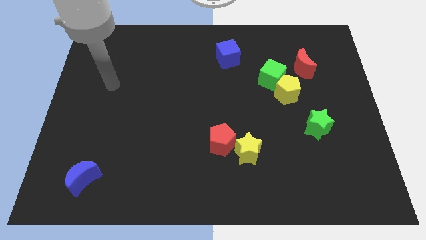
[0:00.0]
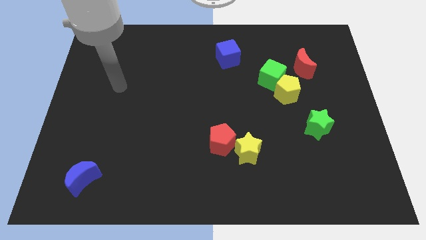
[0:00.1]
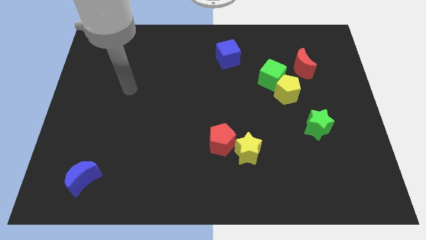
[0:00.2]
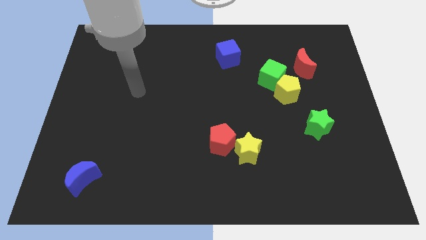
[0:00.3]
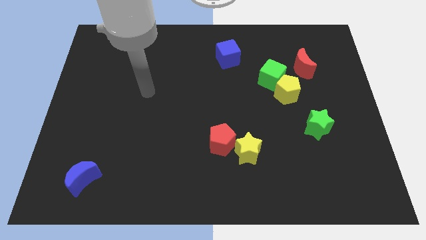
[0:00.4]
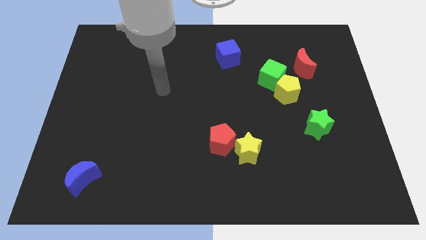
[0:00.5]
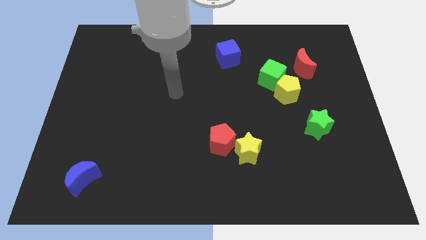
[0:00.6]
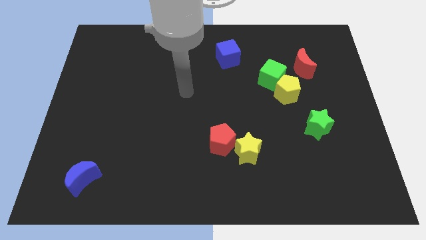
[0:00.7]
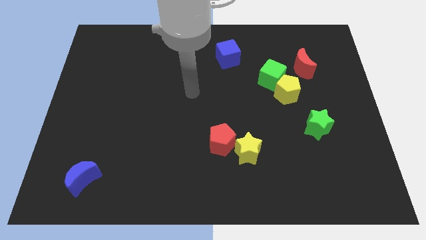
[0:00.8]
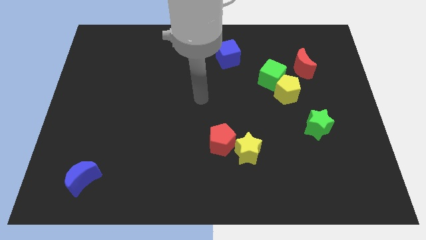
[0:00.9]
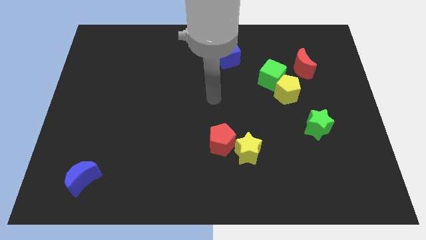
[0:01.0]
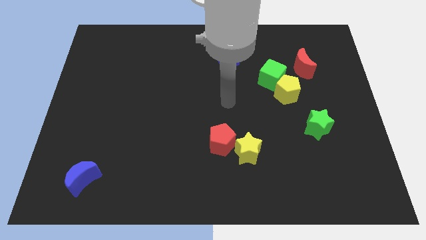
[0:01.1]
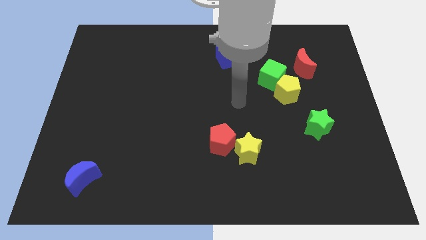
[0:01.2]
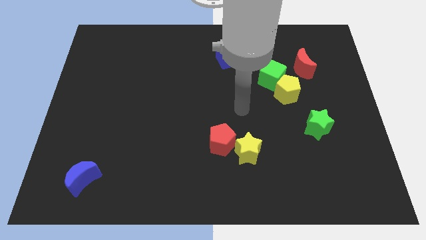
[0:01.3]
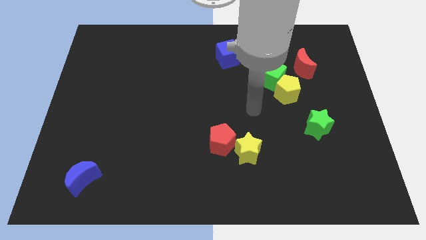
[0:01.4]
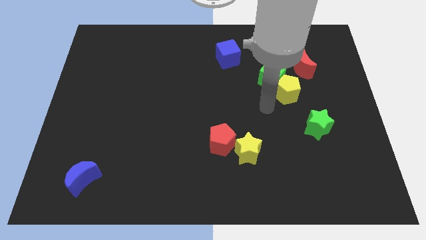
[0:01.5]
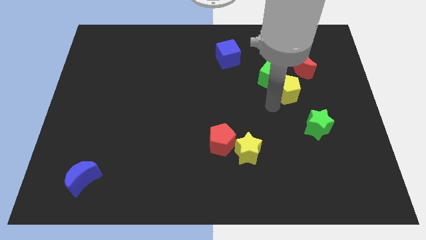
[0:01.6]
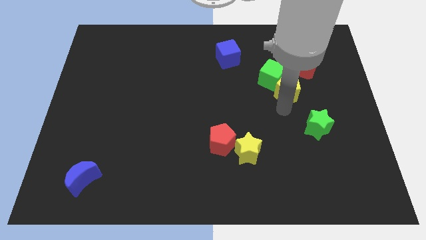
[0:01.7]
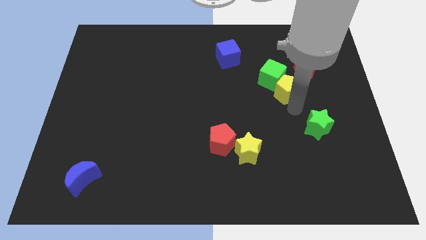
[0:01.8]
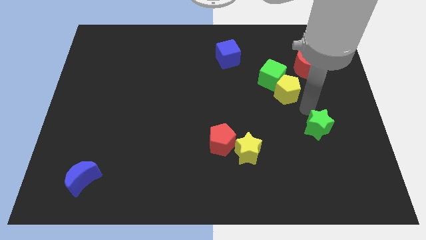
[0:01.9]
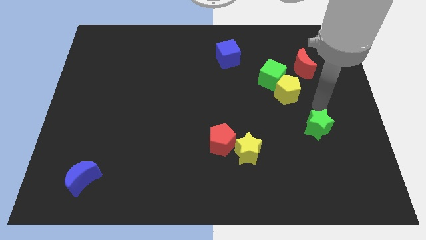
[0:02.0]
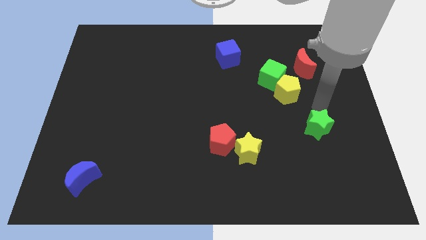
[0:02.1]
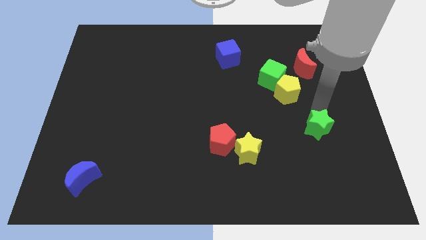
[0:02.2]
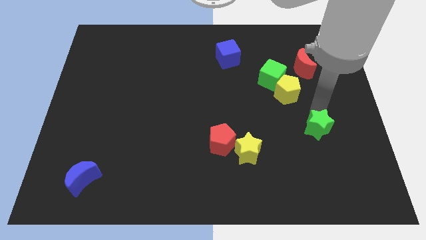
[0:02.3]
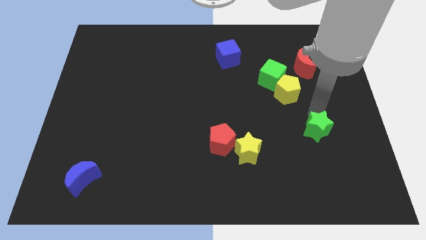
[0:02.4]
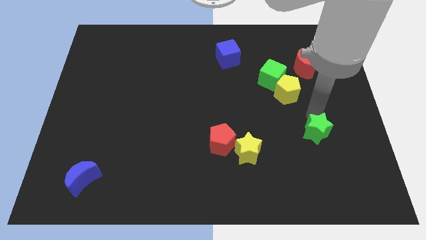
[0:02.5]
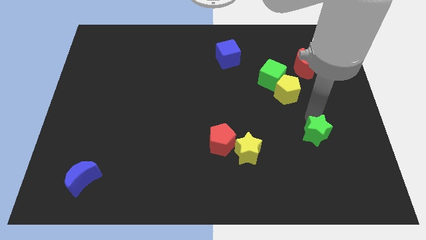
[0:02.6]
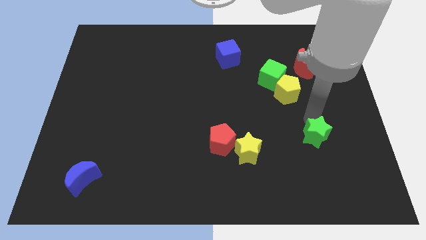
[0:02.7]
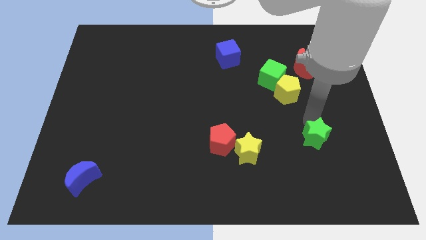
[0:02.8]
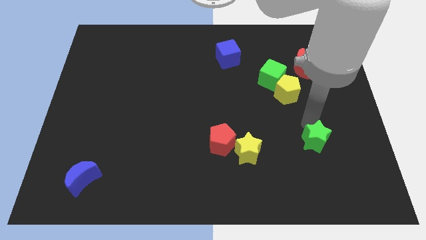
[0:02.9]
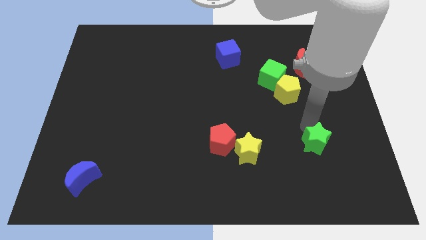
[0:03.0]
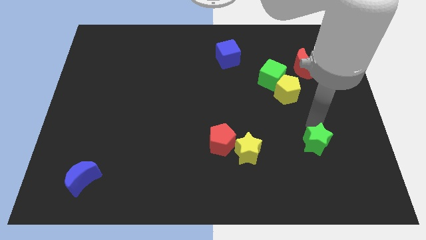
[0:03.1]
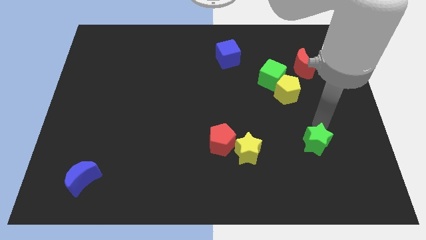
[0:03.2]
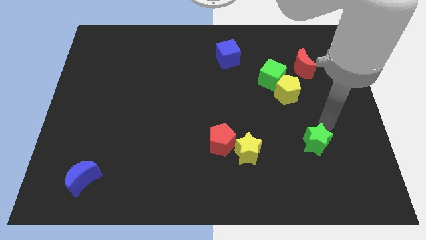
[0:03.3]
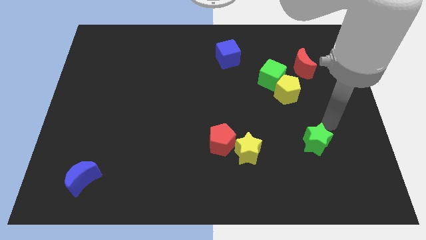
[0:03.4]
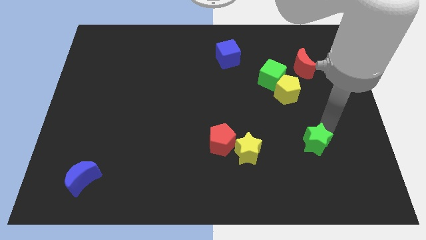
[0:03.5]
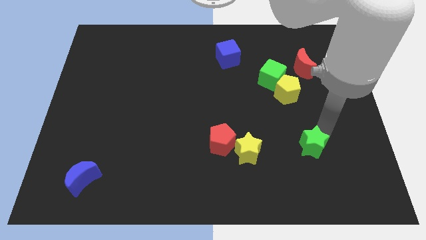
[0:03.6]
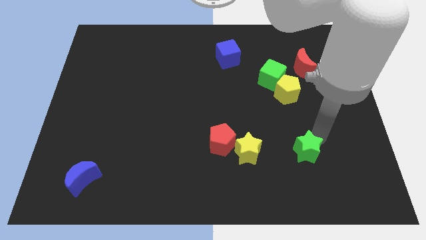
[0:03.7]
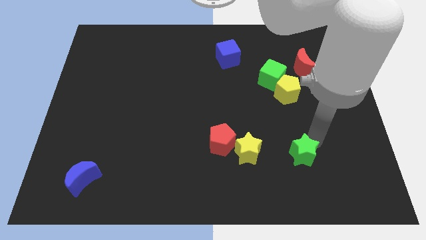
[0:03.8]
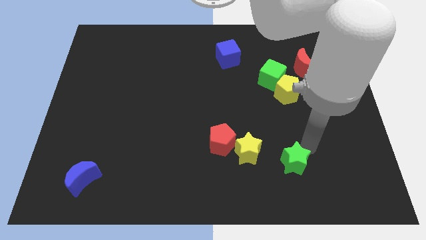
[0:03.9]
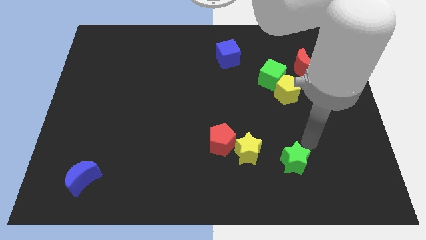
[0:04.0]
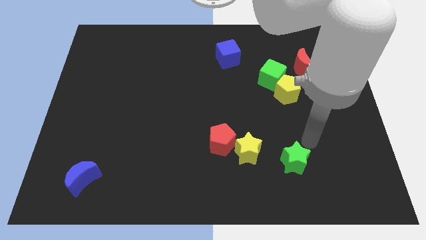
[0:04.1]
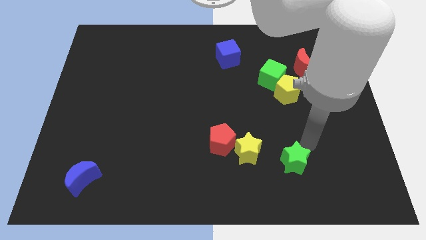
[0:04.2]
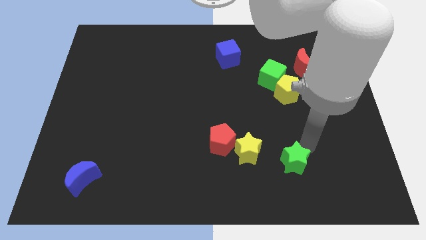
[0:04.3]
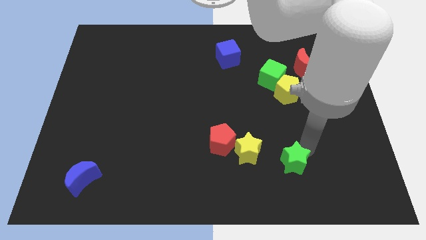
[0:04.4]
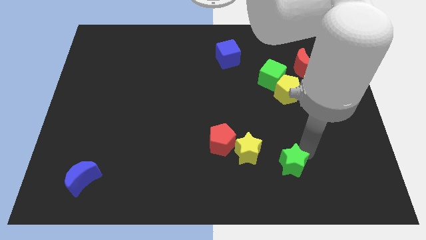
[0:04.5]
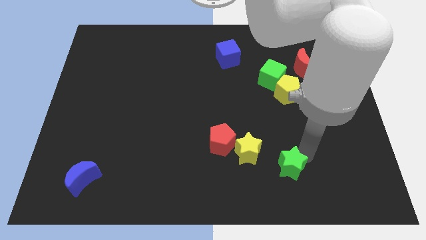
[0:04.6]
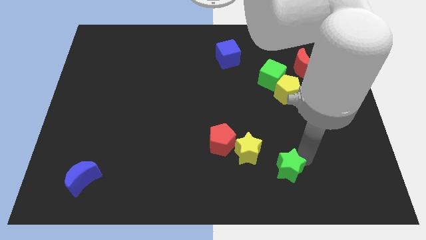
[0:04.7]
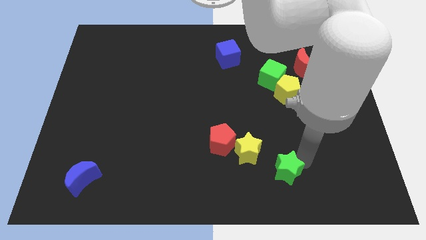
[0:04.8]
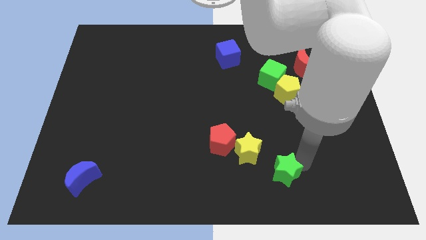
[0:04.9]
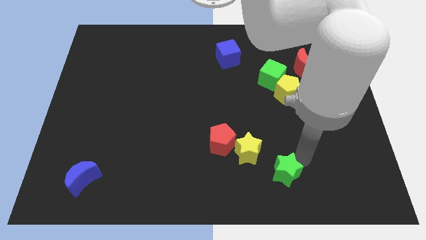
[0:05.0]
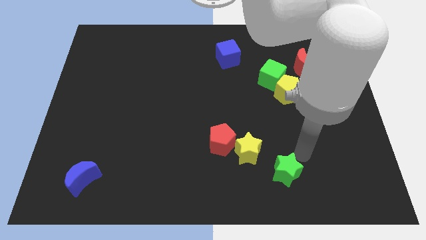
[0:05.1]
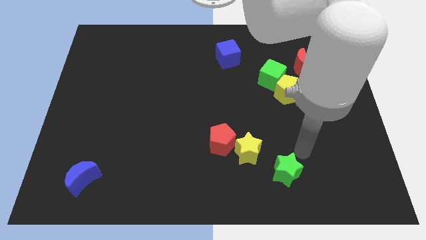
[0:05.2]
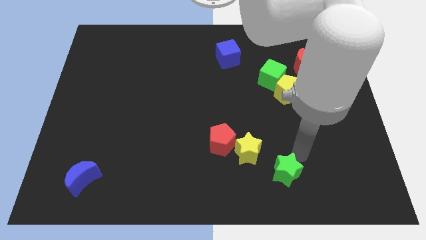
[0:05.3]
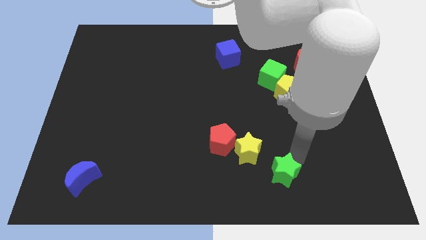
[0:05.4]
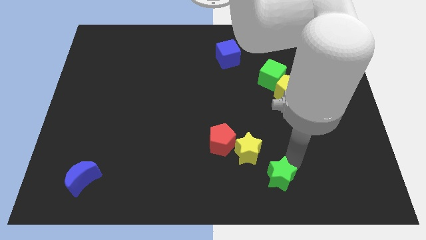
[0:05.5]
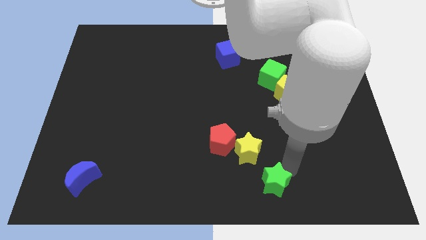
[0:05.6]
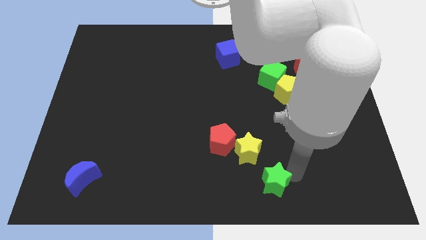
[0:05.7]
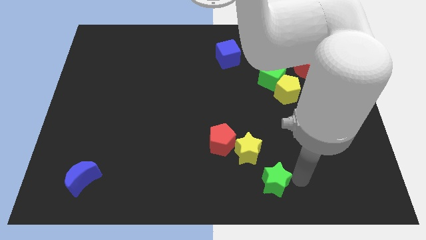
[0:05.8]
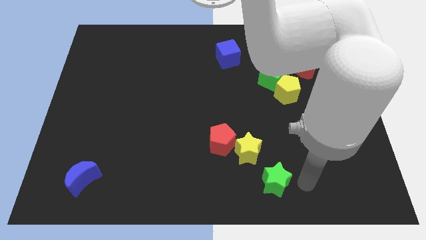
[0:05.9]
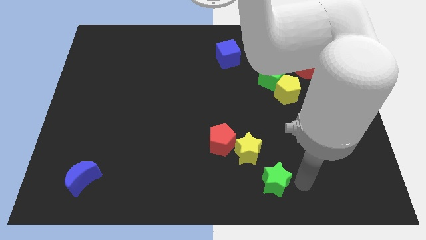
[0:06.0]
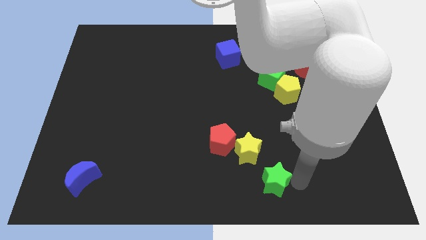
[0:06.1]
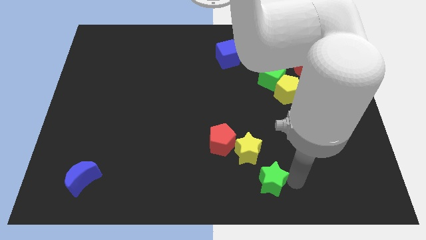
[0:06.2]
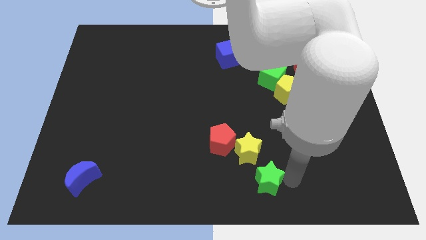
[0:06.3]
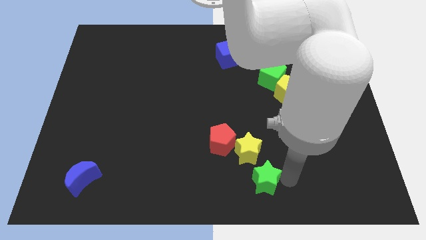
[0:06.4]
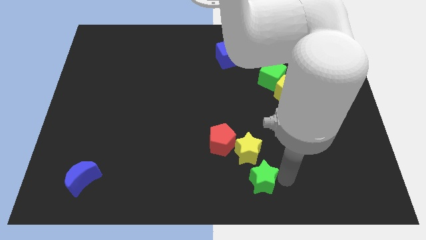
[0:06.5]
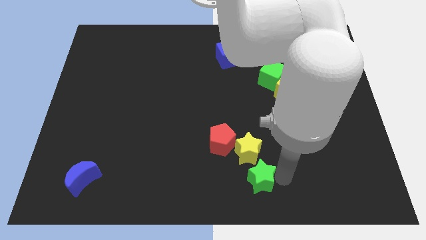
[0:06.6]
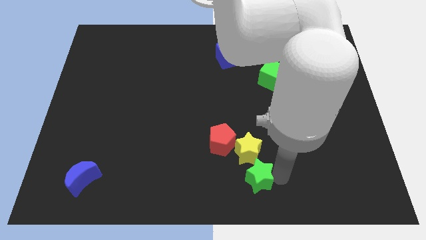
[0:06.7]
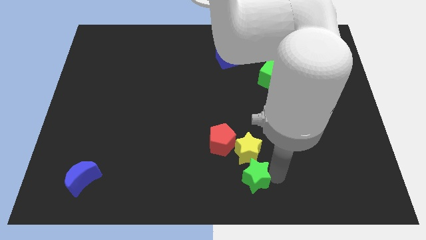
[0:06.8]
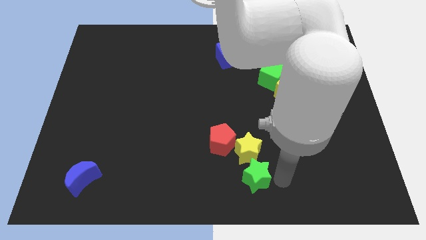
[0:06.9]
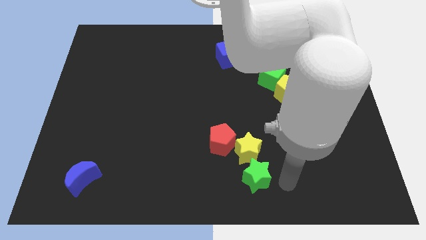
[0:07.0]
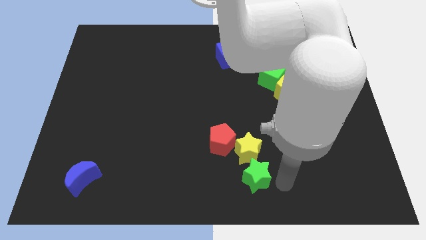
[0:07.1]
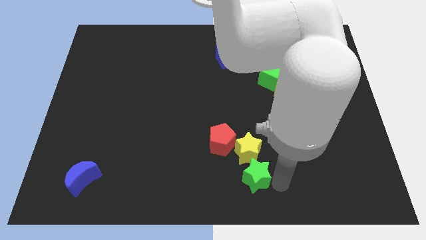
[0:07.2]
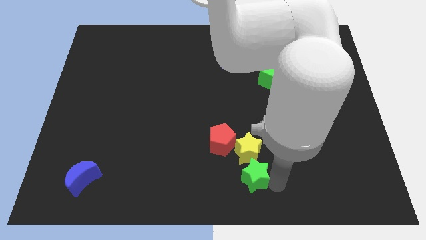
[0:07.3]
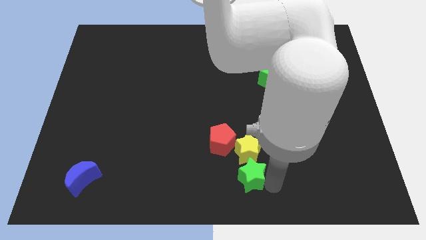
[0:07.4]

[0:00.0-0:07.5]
push the green star to the bottom left side of the yellow star
